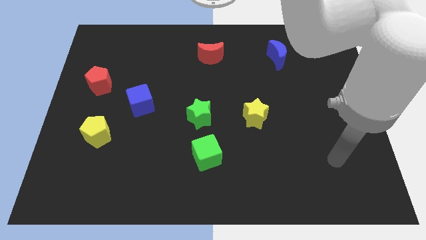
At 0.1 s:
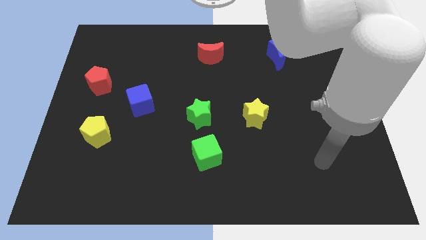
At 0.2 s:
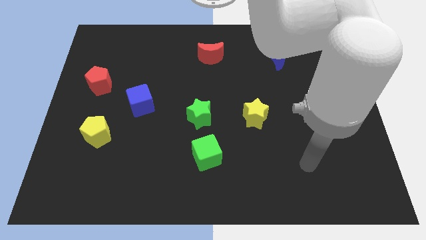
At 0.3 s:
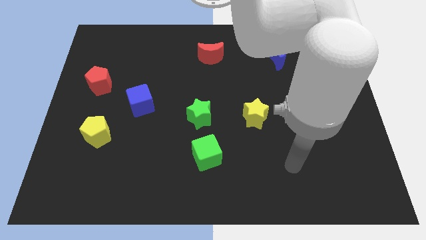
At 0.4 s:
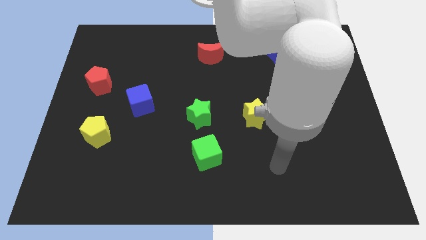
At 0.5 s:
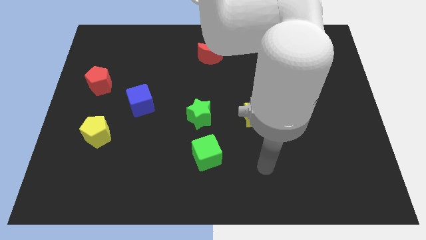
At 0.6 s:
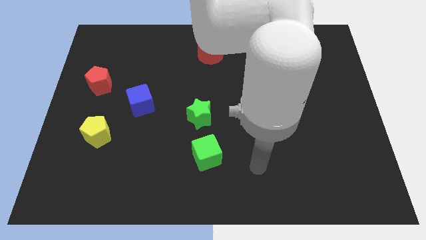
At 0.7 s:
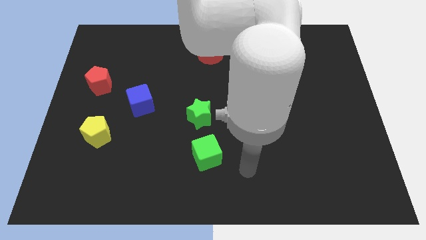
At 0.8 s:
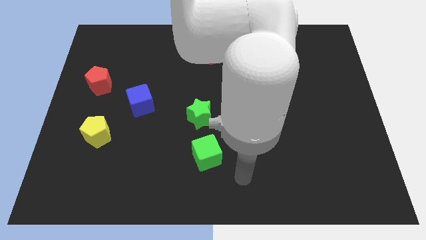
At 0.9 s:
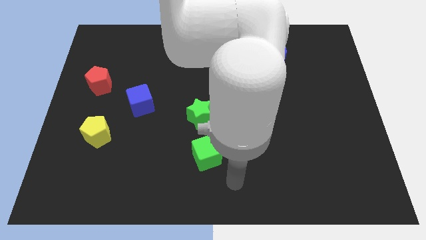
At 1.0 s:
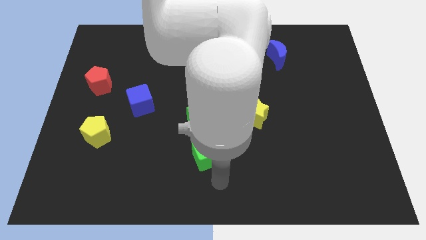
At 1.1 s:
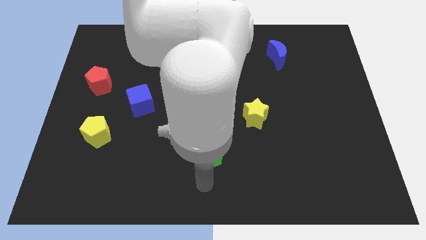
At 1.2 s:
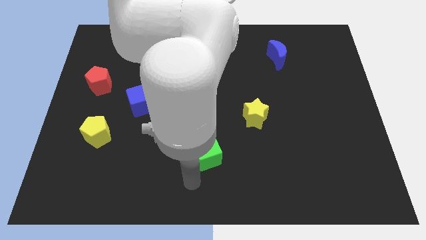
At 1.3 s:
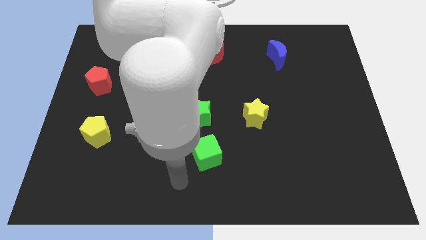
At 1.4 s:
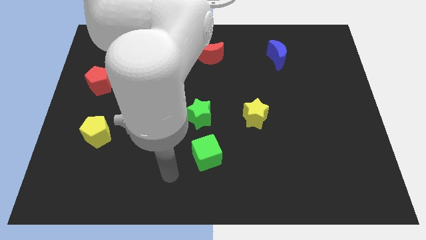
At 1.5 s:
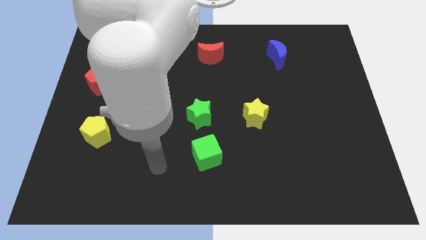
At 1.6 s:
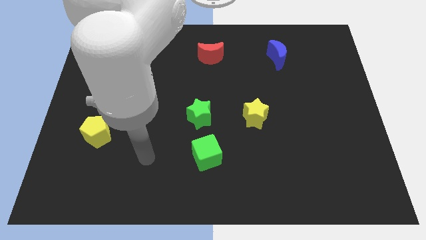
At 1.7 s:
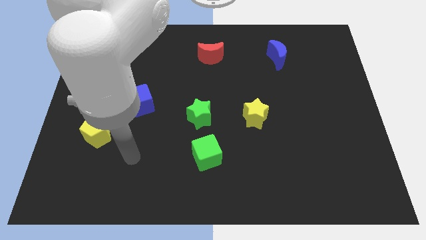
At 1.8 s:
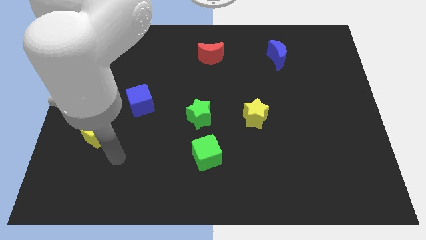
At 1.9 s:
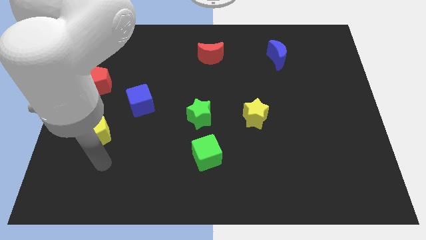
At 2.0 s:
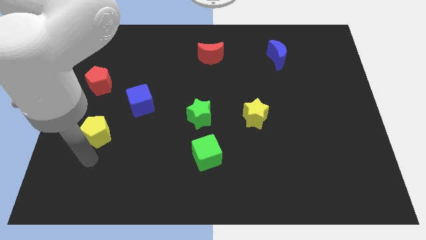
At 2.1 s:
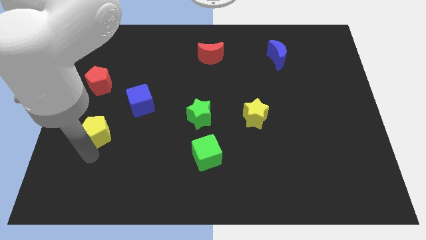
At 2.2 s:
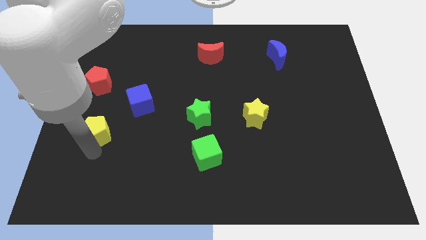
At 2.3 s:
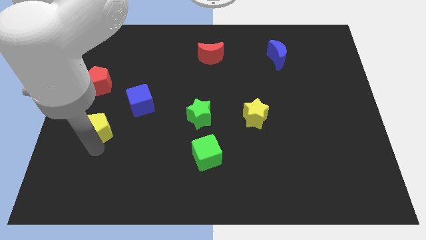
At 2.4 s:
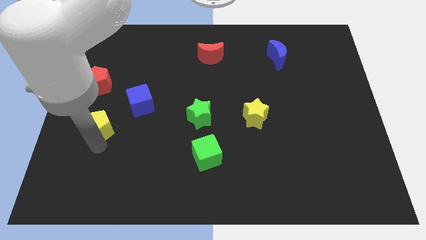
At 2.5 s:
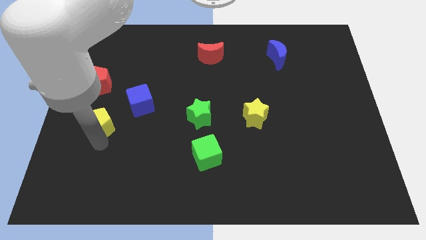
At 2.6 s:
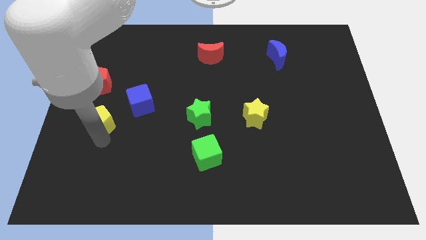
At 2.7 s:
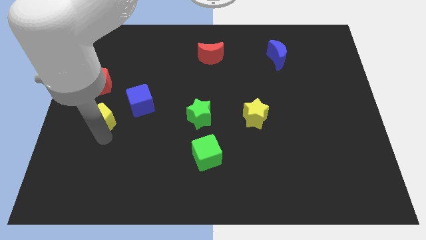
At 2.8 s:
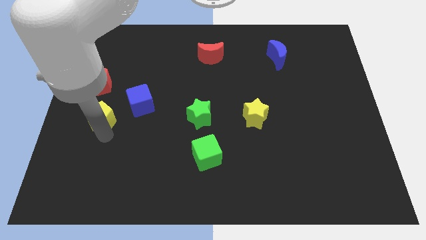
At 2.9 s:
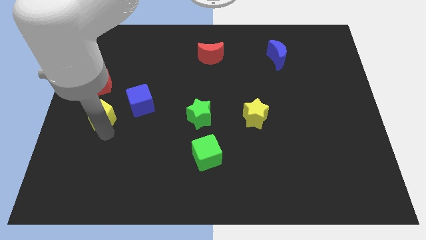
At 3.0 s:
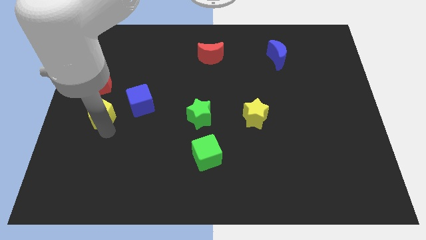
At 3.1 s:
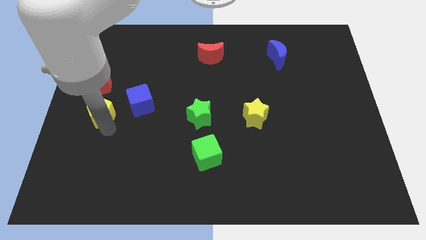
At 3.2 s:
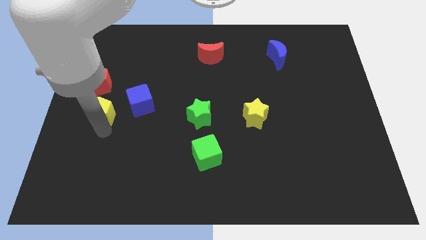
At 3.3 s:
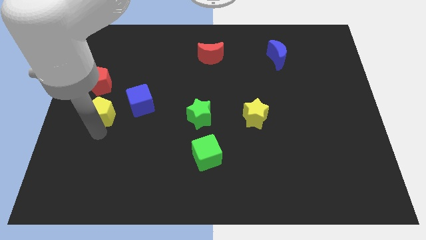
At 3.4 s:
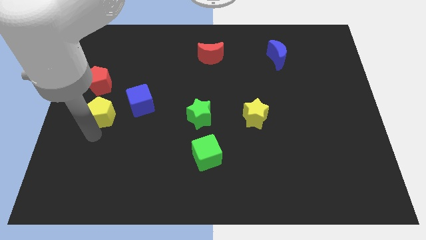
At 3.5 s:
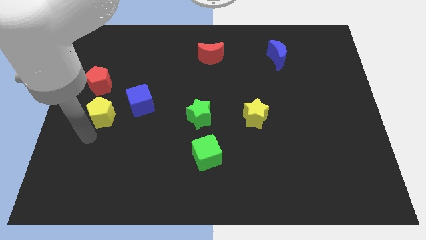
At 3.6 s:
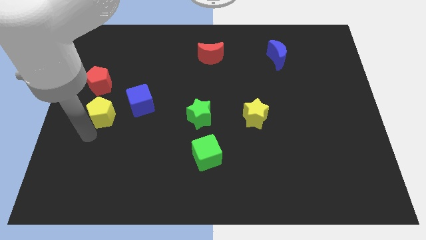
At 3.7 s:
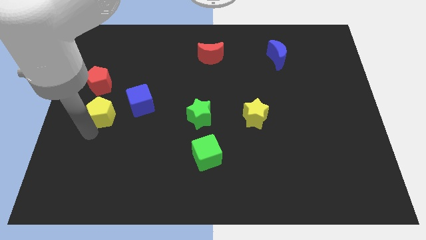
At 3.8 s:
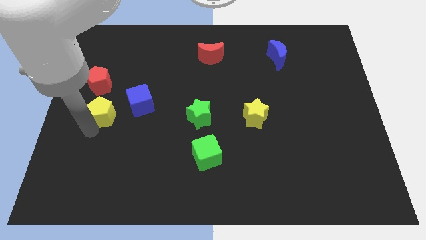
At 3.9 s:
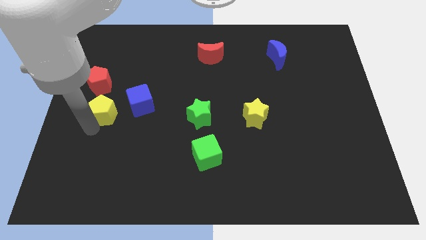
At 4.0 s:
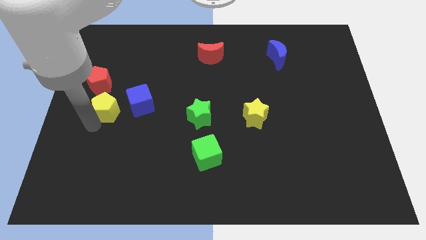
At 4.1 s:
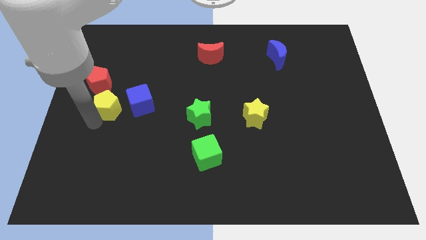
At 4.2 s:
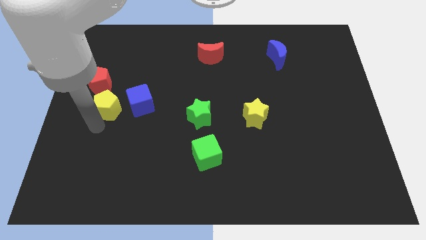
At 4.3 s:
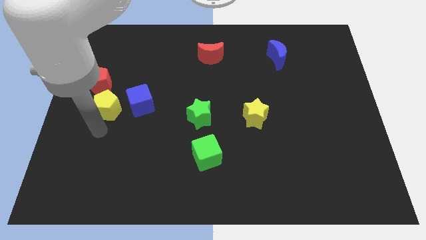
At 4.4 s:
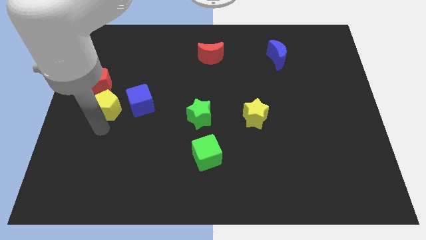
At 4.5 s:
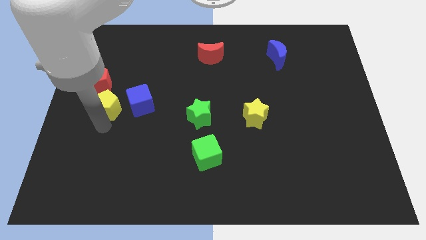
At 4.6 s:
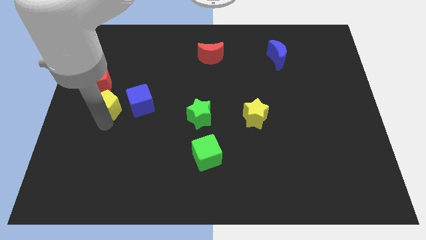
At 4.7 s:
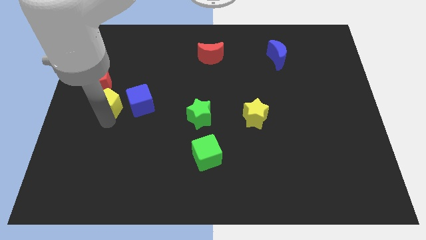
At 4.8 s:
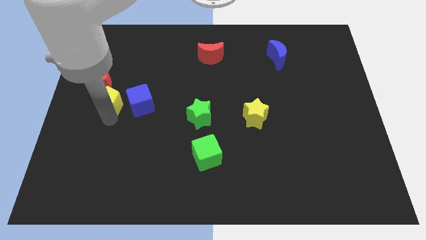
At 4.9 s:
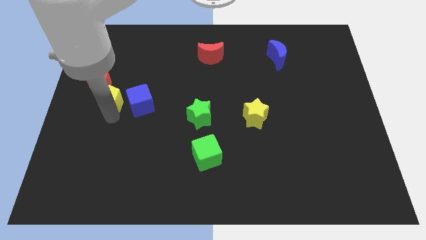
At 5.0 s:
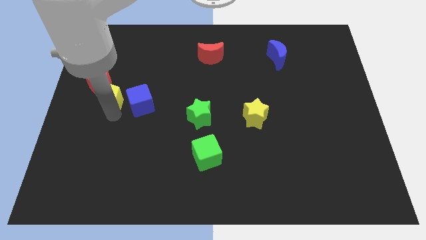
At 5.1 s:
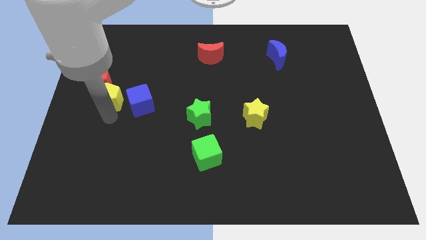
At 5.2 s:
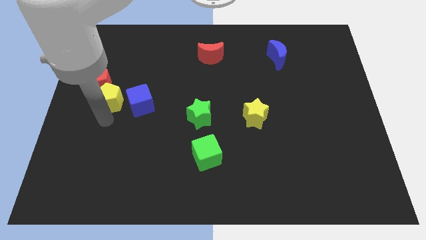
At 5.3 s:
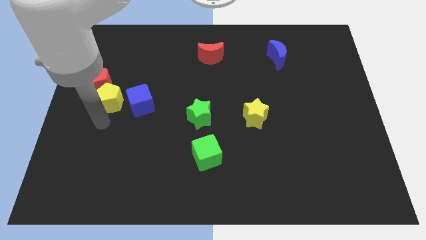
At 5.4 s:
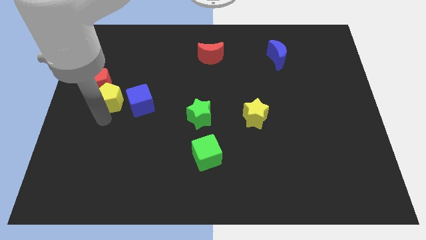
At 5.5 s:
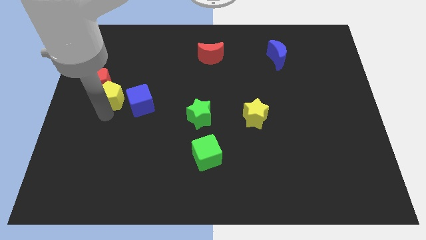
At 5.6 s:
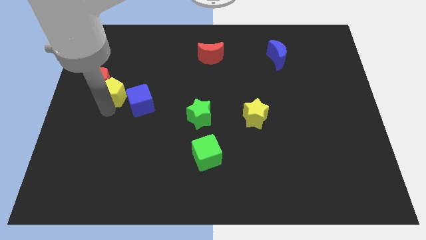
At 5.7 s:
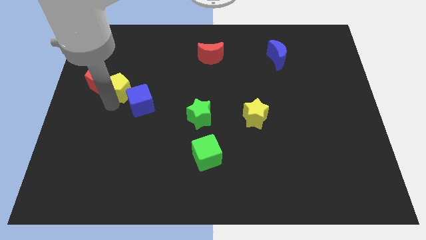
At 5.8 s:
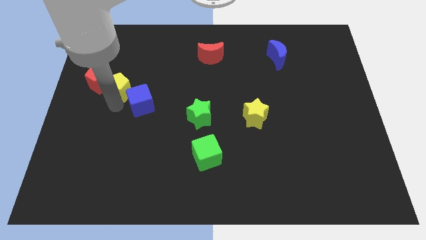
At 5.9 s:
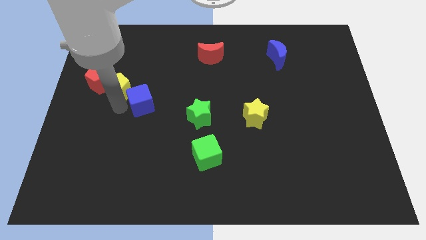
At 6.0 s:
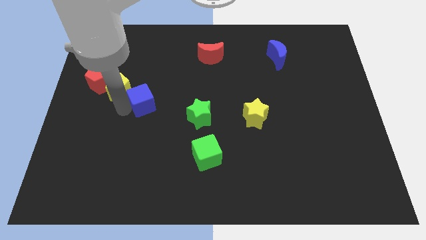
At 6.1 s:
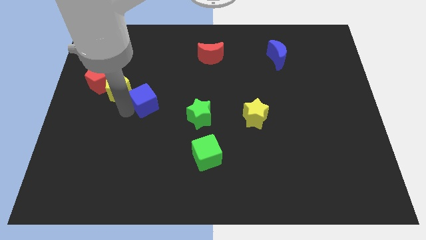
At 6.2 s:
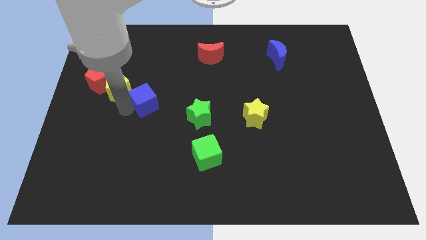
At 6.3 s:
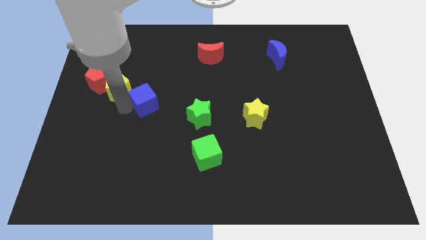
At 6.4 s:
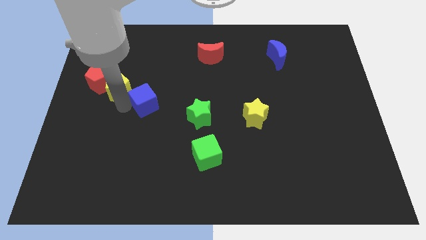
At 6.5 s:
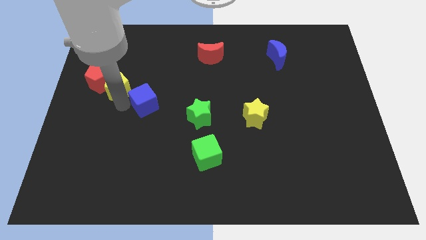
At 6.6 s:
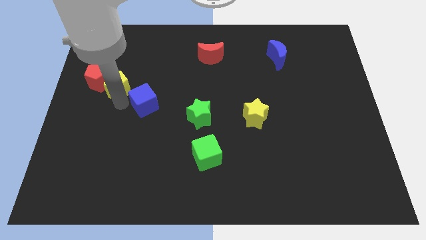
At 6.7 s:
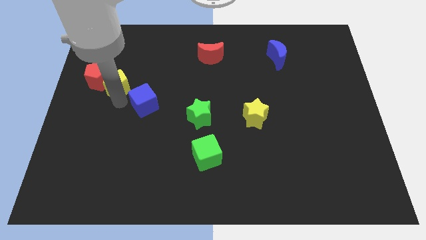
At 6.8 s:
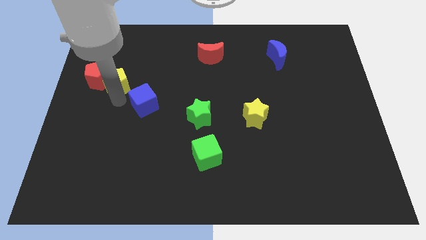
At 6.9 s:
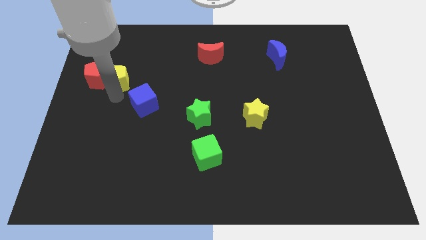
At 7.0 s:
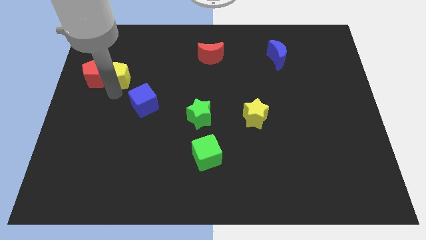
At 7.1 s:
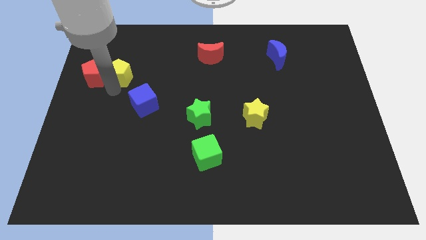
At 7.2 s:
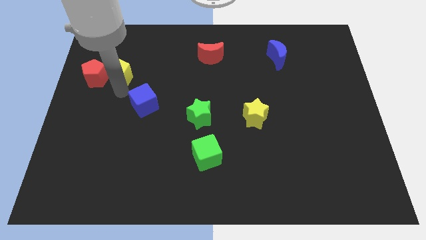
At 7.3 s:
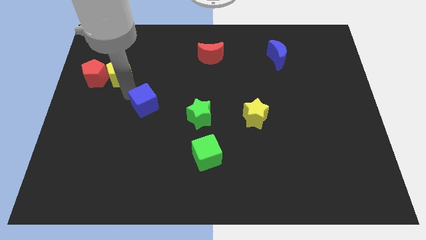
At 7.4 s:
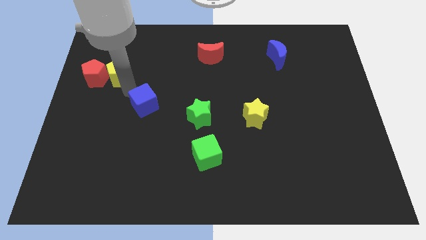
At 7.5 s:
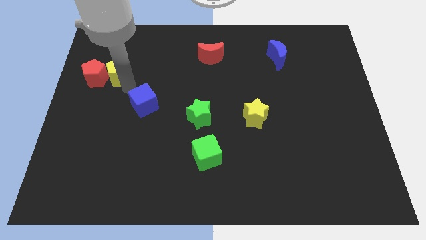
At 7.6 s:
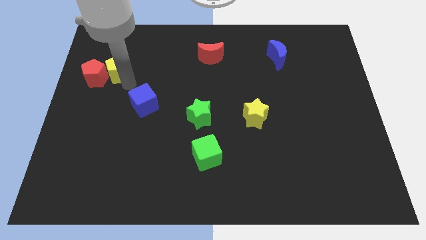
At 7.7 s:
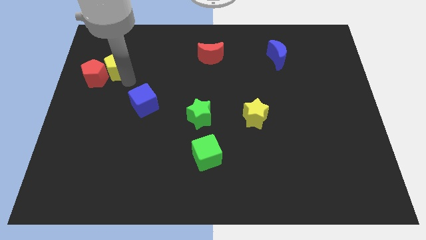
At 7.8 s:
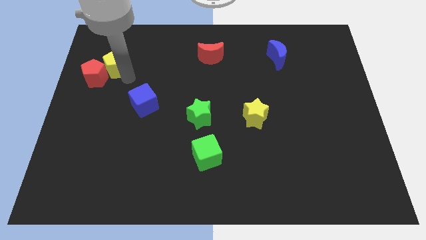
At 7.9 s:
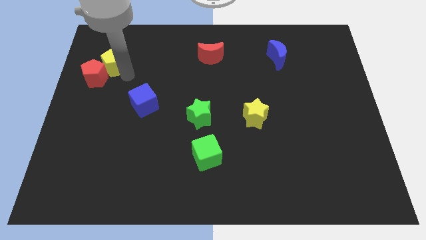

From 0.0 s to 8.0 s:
move the yellow pentagon to the top of the red pentagon
